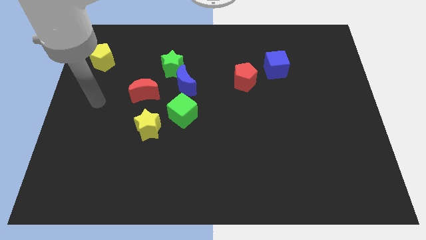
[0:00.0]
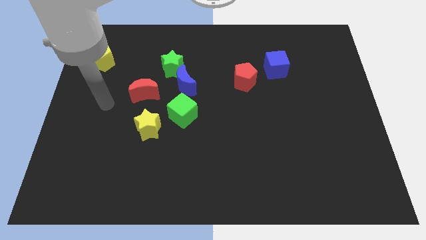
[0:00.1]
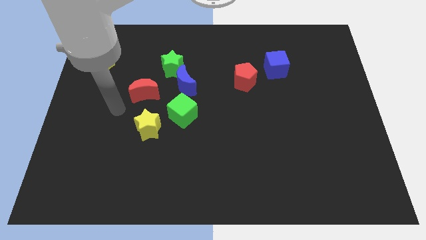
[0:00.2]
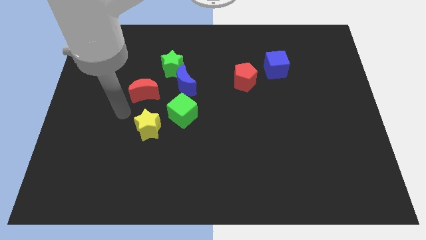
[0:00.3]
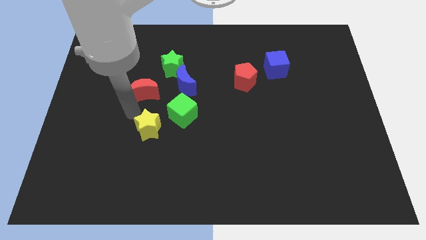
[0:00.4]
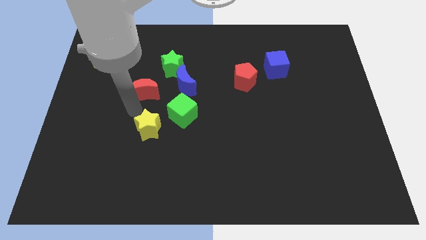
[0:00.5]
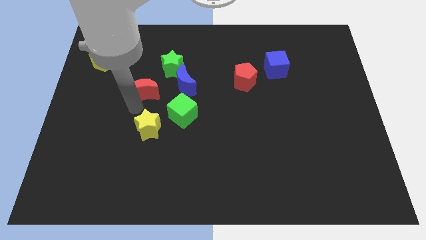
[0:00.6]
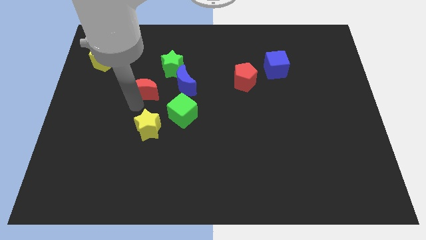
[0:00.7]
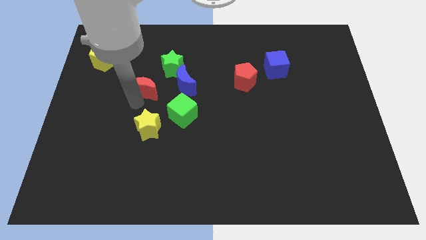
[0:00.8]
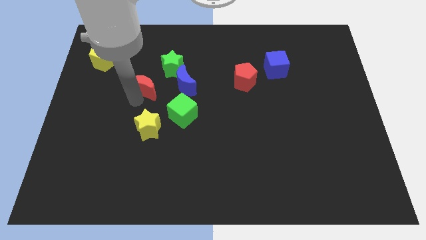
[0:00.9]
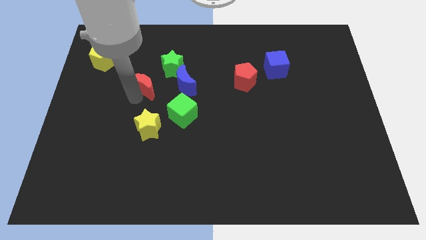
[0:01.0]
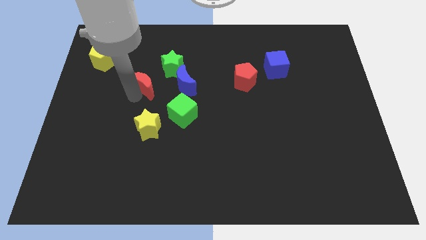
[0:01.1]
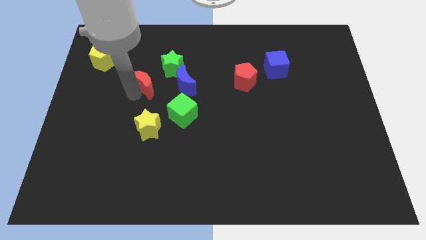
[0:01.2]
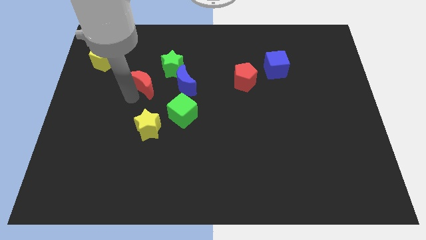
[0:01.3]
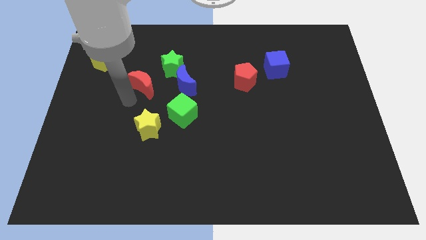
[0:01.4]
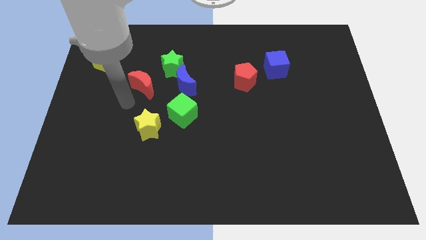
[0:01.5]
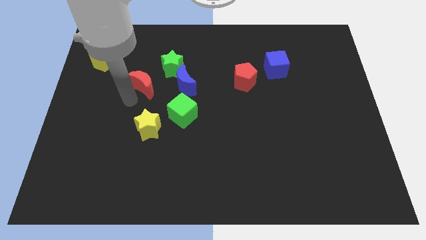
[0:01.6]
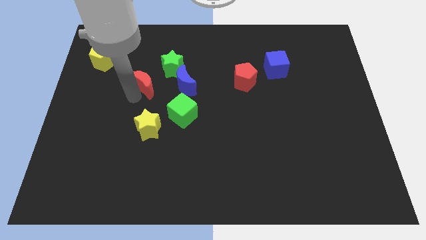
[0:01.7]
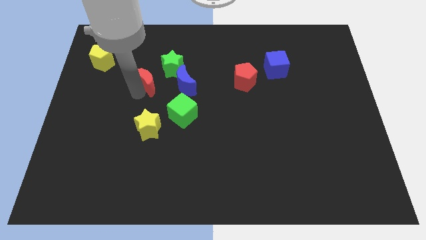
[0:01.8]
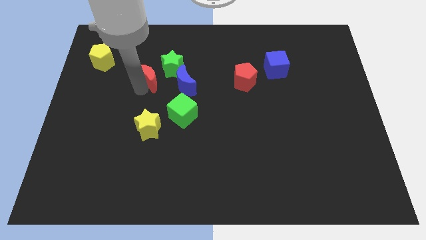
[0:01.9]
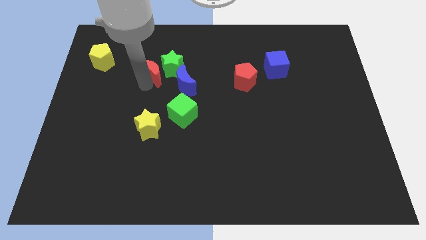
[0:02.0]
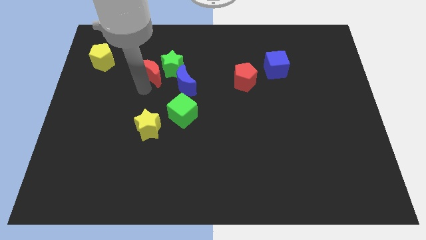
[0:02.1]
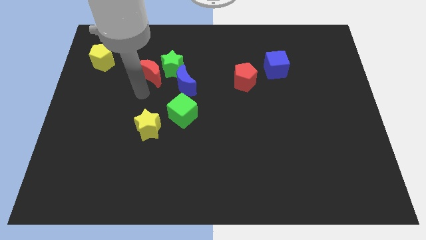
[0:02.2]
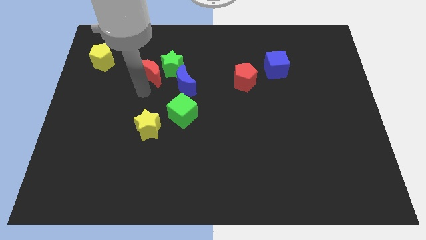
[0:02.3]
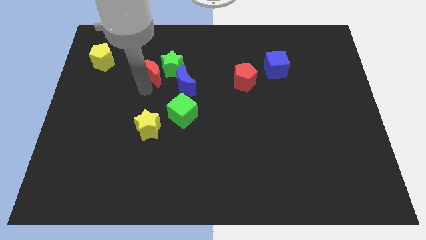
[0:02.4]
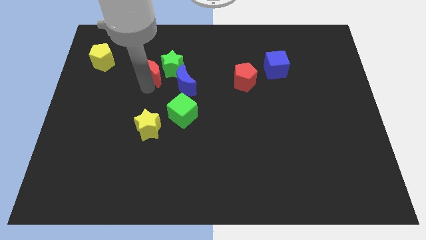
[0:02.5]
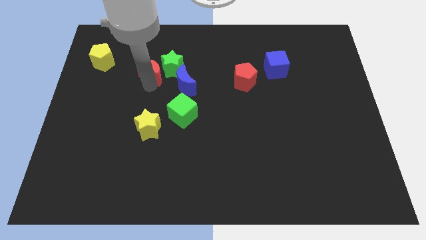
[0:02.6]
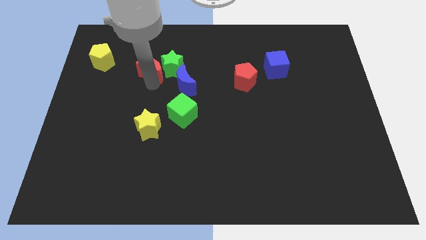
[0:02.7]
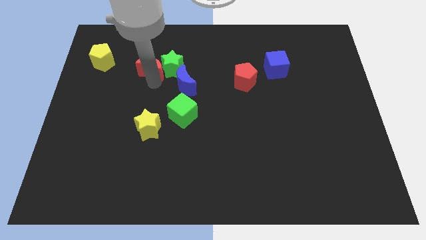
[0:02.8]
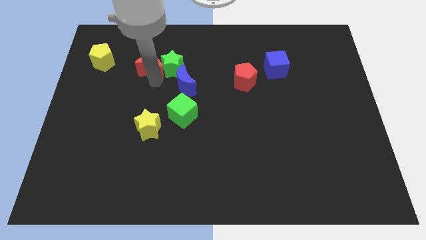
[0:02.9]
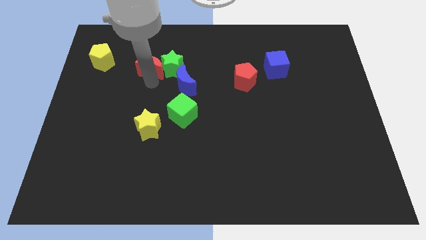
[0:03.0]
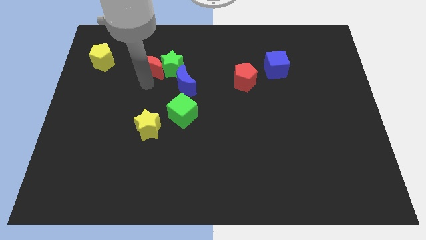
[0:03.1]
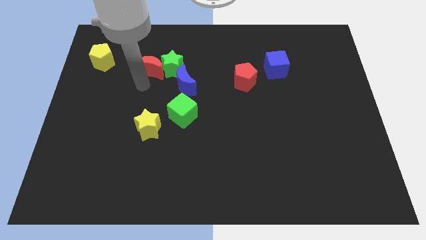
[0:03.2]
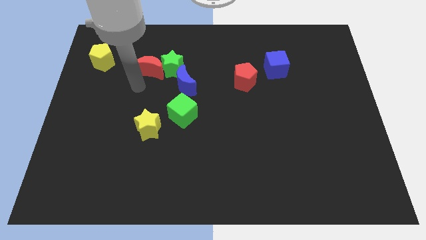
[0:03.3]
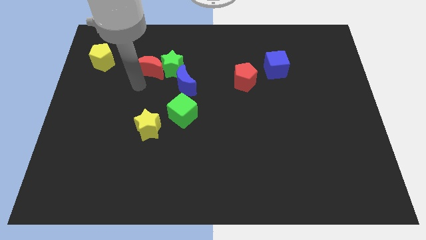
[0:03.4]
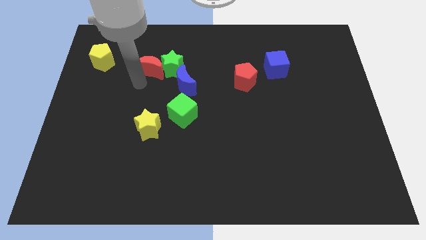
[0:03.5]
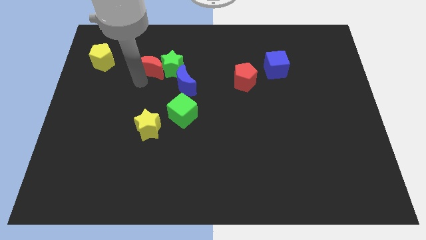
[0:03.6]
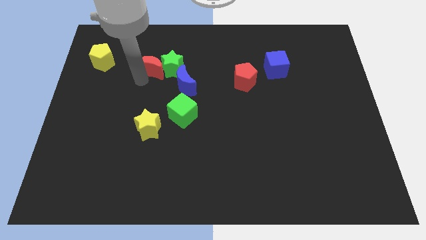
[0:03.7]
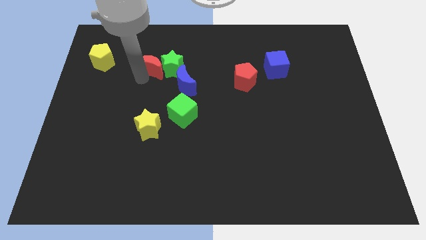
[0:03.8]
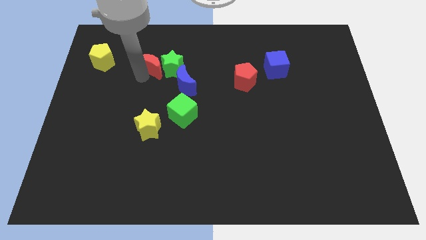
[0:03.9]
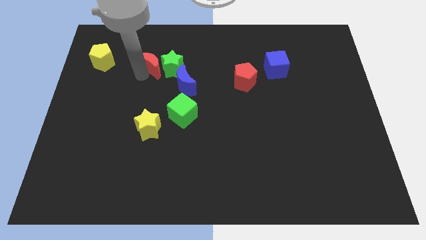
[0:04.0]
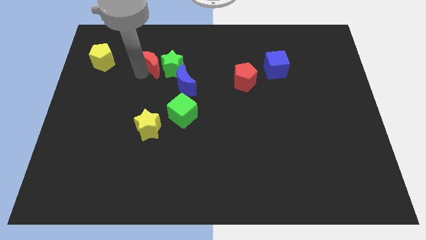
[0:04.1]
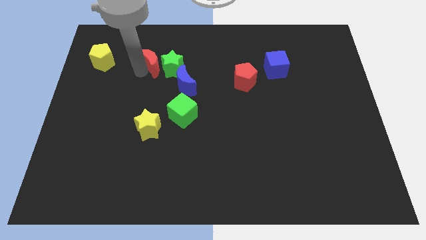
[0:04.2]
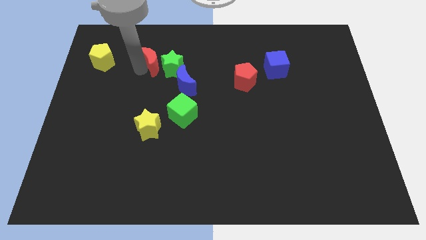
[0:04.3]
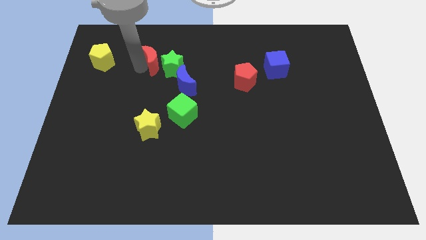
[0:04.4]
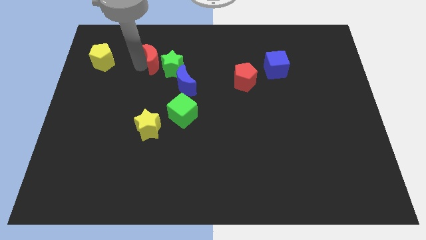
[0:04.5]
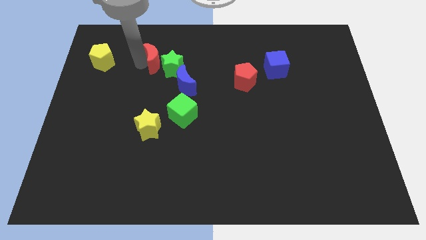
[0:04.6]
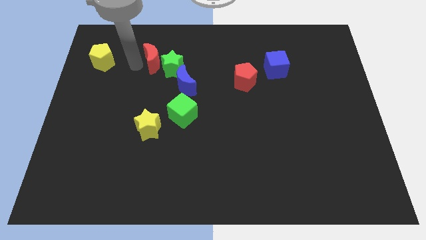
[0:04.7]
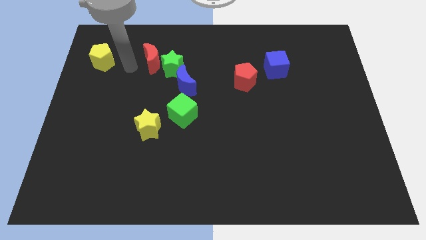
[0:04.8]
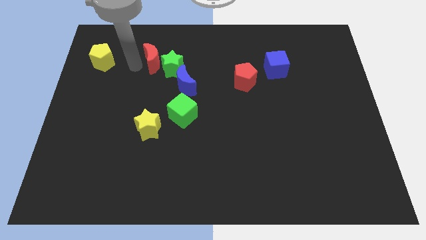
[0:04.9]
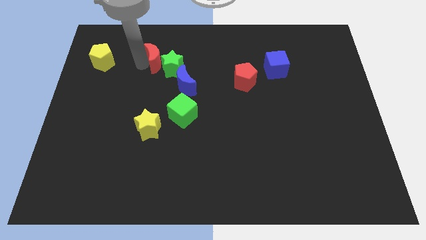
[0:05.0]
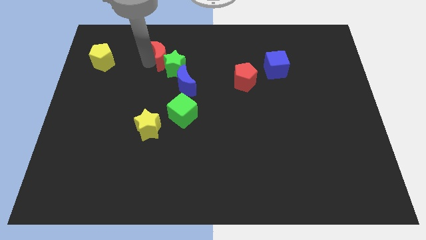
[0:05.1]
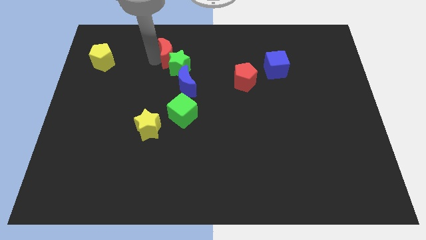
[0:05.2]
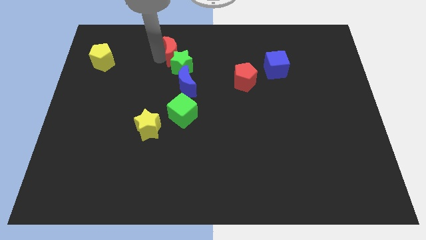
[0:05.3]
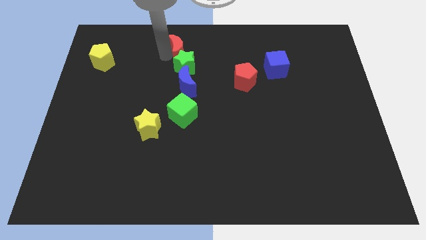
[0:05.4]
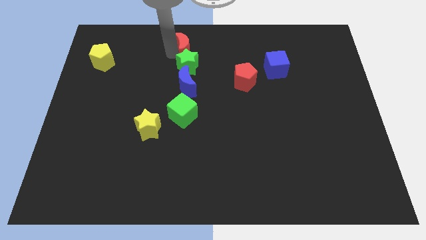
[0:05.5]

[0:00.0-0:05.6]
put the red moon to the top side
